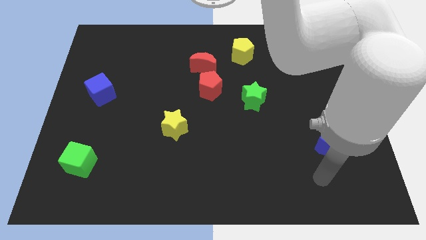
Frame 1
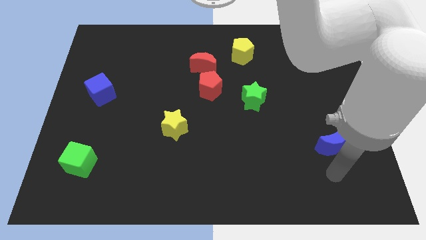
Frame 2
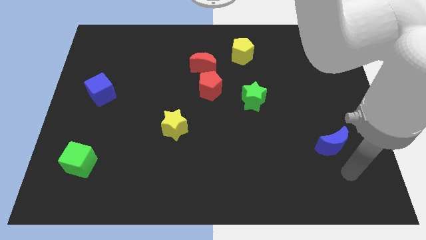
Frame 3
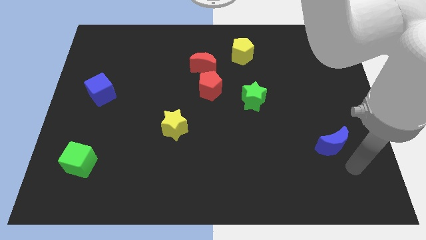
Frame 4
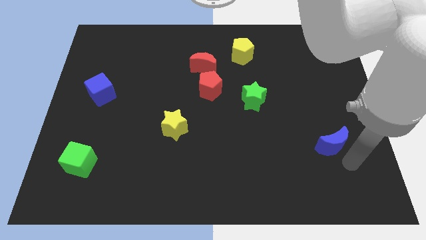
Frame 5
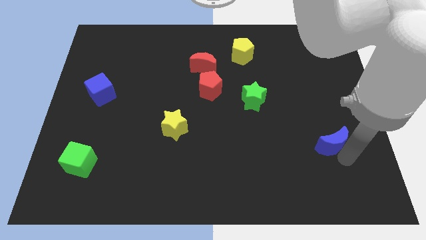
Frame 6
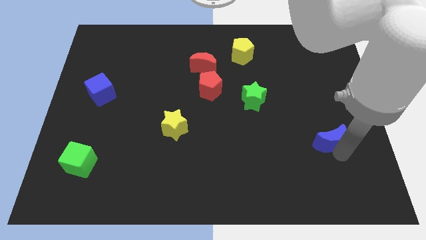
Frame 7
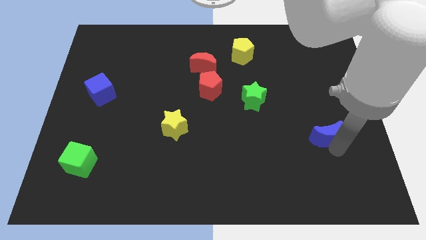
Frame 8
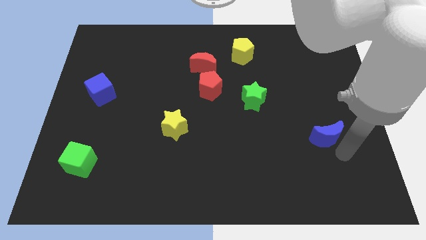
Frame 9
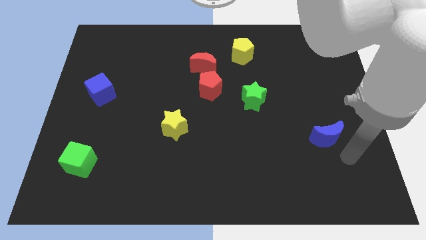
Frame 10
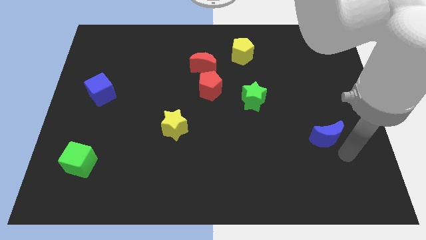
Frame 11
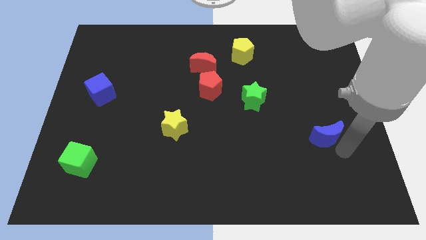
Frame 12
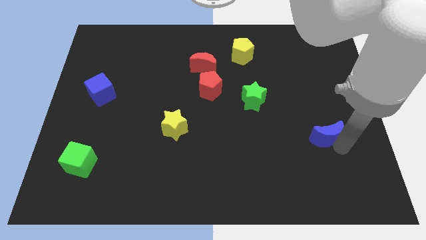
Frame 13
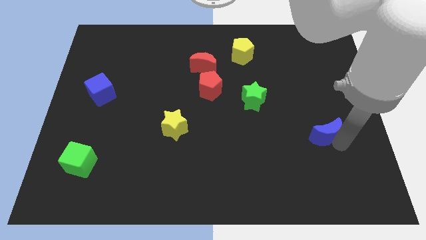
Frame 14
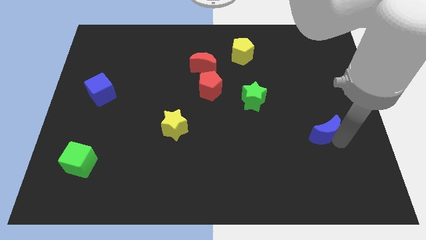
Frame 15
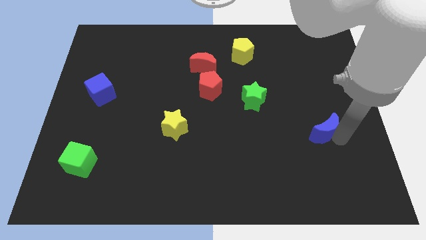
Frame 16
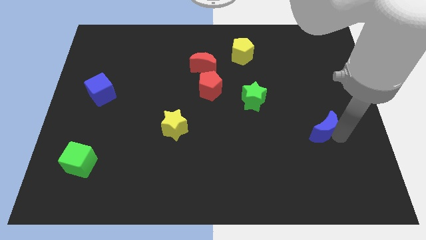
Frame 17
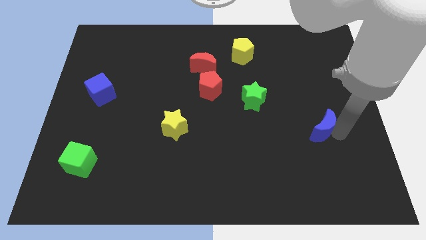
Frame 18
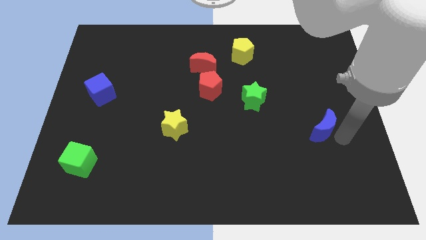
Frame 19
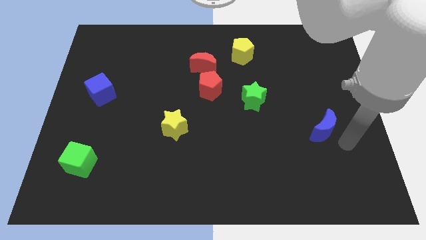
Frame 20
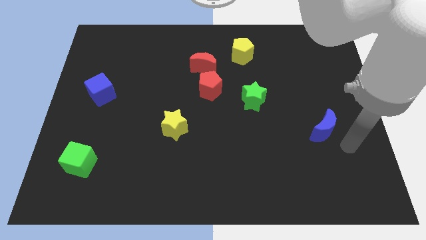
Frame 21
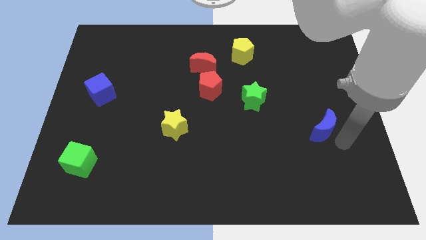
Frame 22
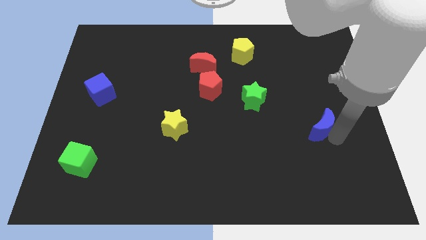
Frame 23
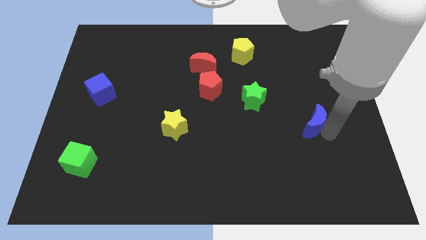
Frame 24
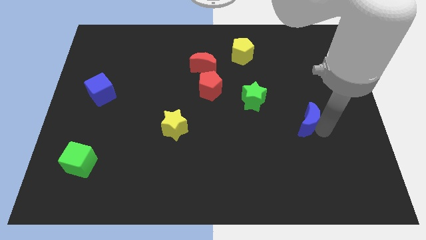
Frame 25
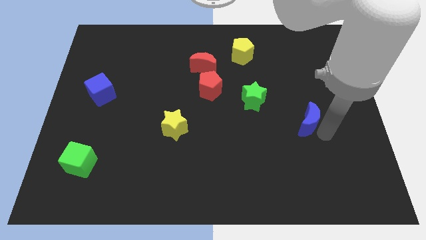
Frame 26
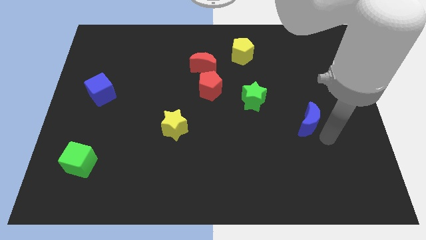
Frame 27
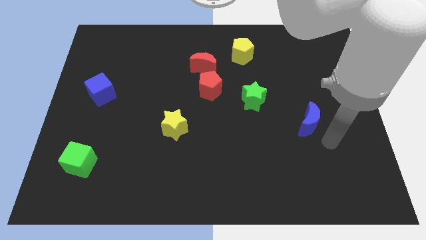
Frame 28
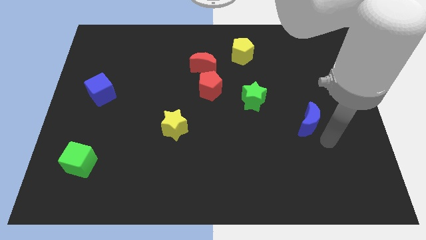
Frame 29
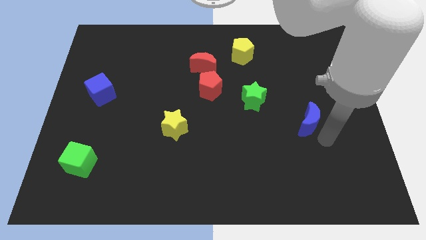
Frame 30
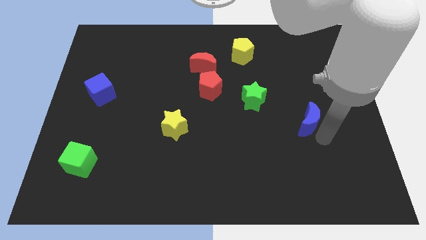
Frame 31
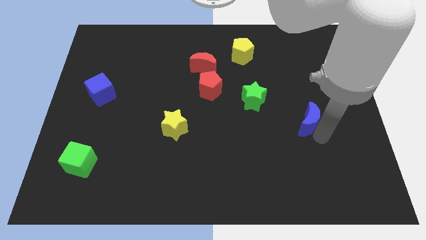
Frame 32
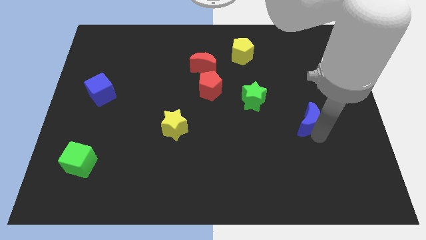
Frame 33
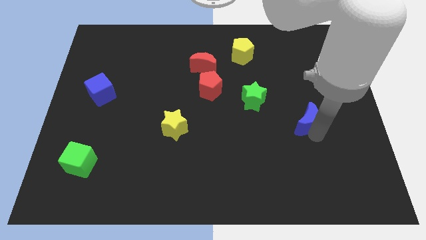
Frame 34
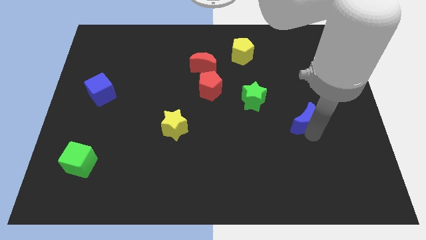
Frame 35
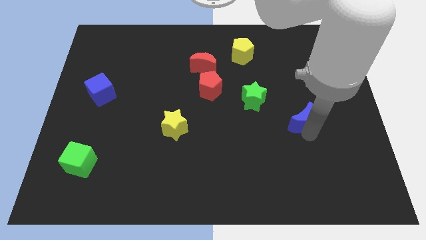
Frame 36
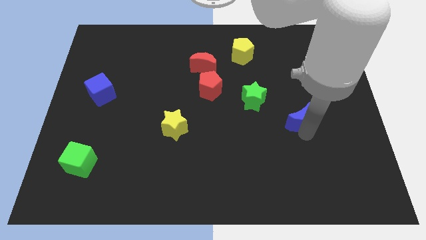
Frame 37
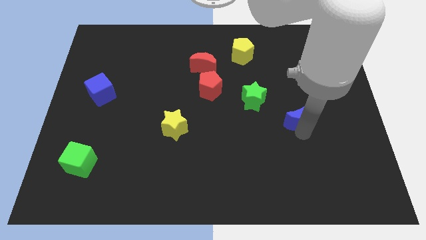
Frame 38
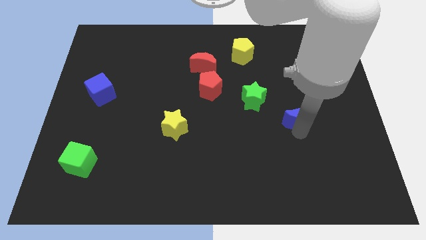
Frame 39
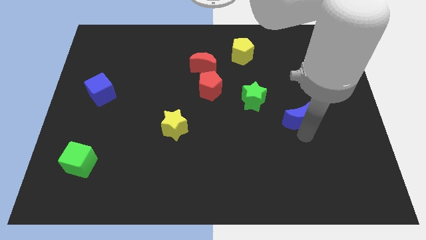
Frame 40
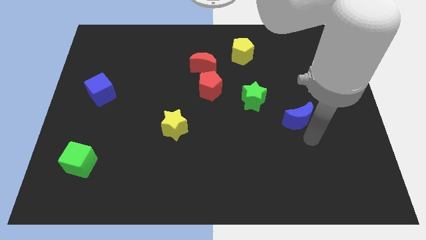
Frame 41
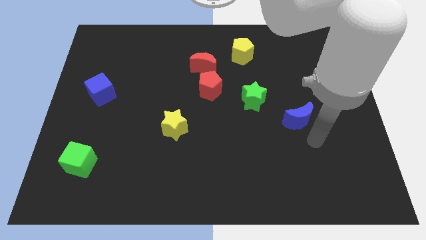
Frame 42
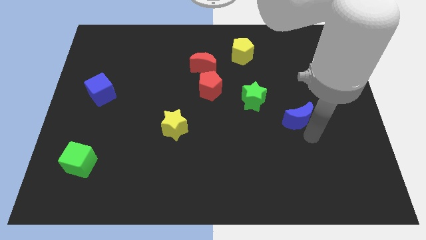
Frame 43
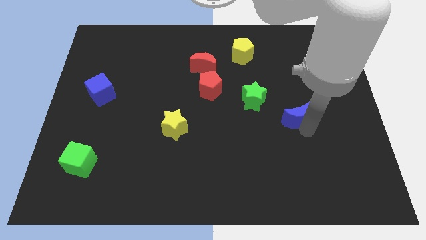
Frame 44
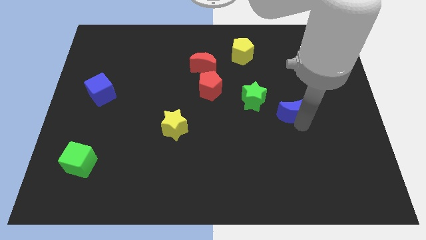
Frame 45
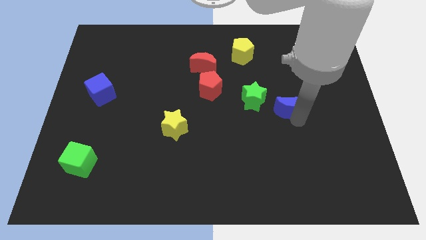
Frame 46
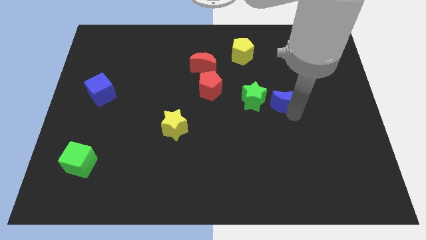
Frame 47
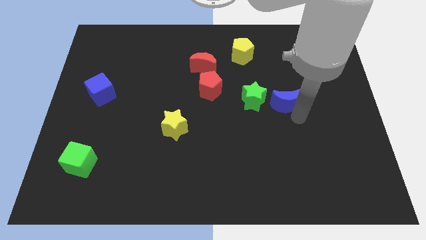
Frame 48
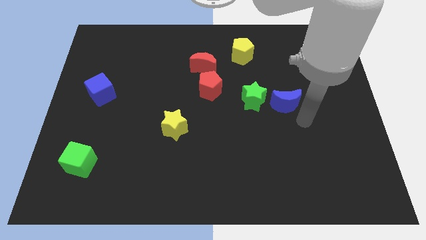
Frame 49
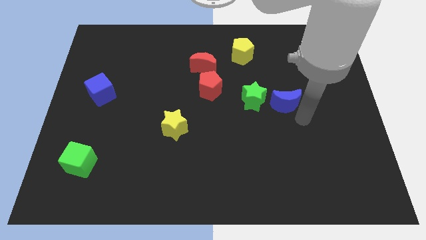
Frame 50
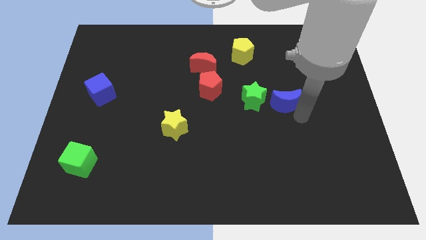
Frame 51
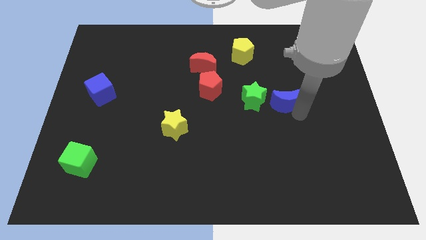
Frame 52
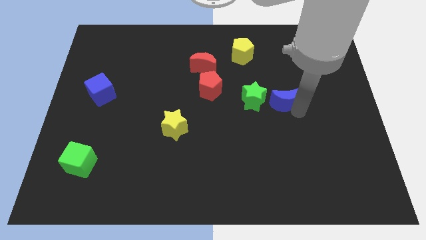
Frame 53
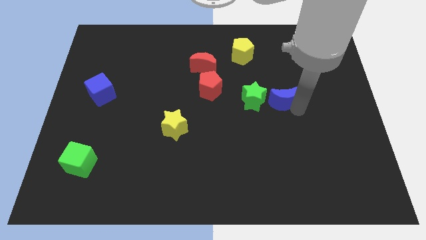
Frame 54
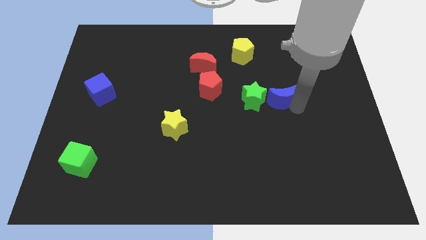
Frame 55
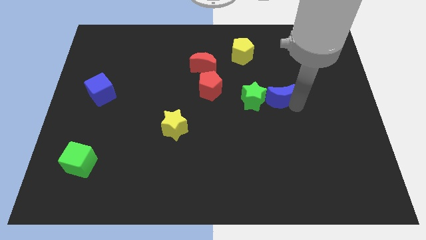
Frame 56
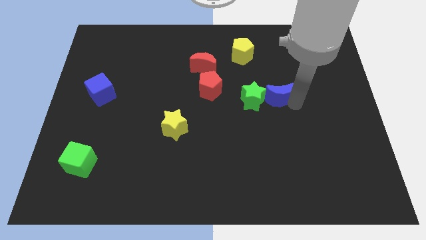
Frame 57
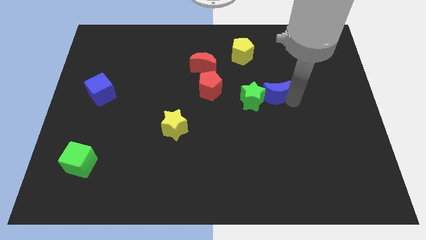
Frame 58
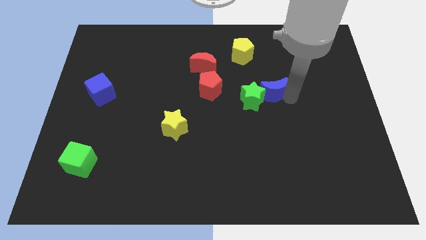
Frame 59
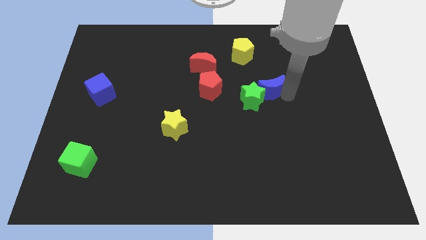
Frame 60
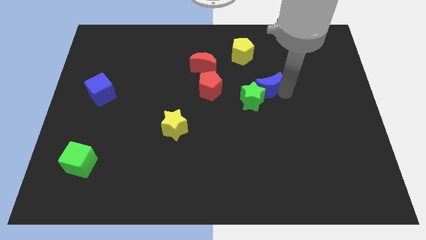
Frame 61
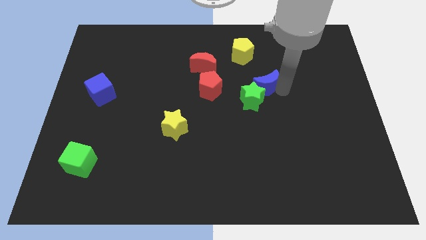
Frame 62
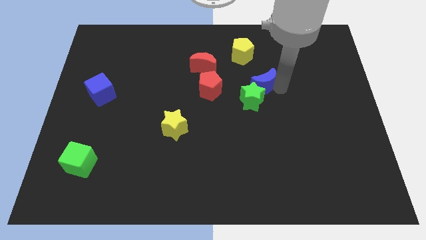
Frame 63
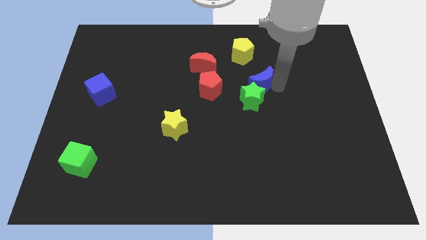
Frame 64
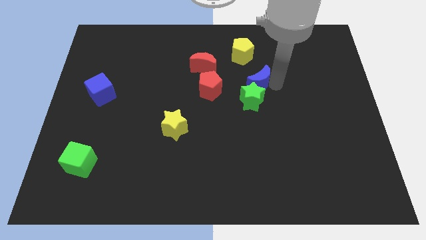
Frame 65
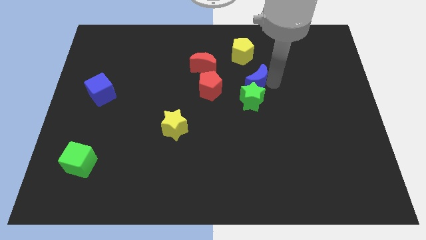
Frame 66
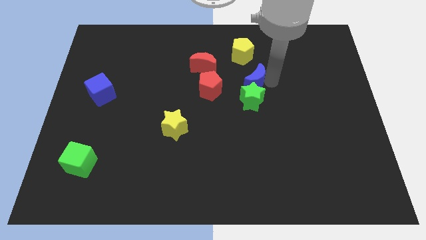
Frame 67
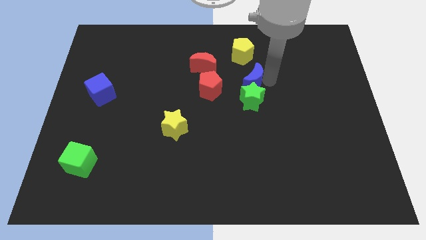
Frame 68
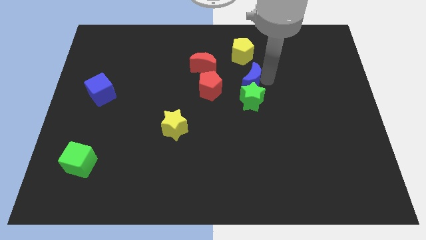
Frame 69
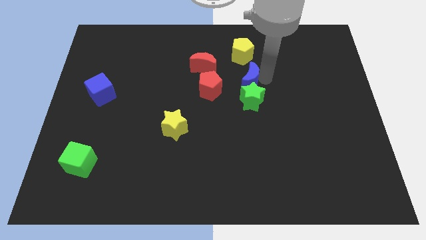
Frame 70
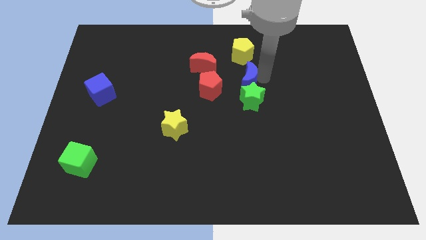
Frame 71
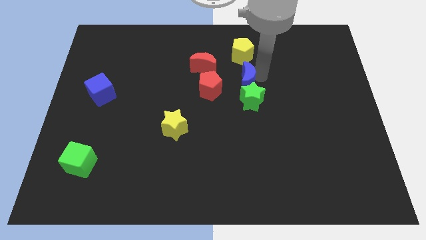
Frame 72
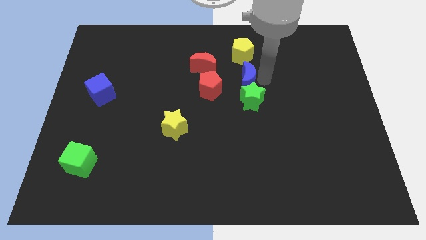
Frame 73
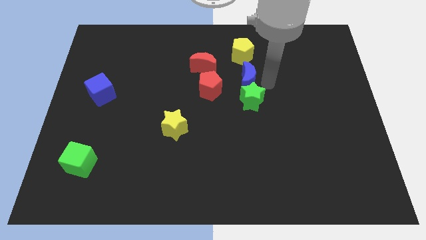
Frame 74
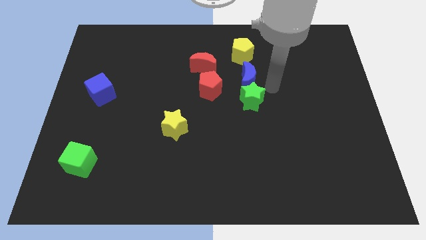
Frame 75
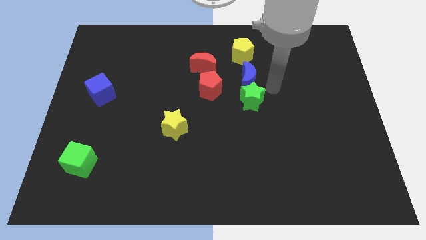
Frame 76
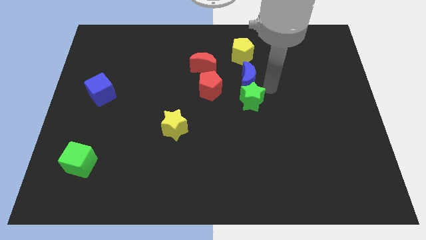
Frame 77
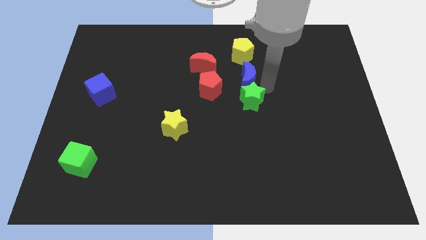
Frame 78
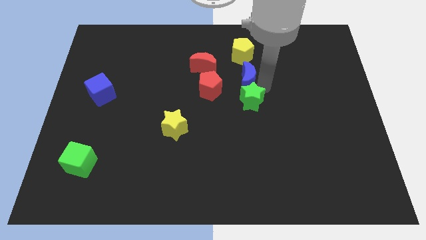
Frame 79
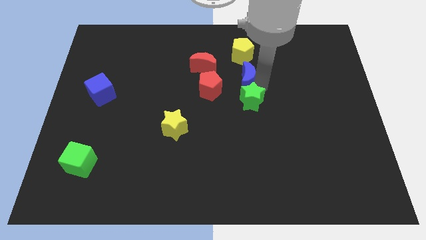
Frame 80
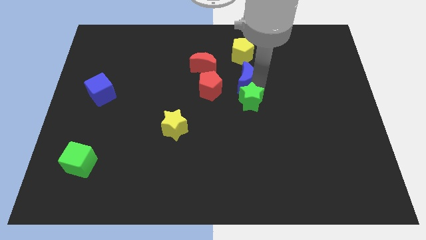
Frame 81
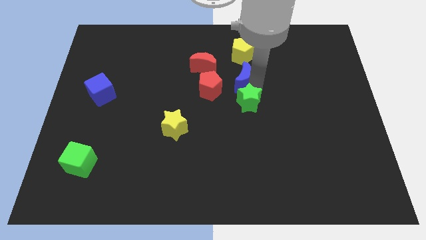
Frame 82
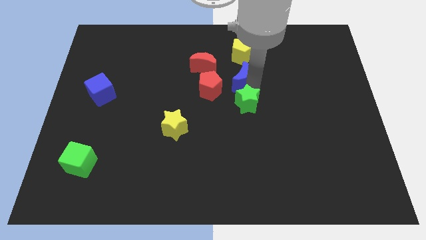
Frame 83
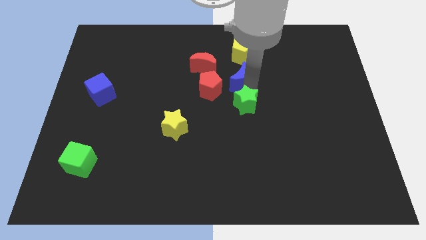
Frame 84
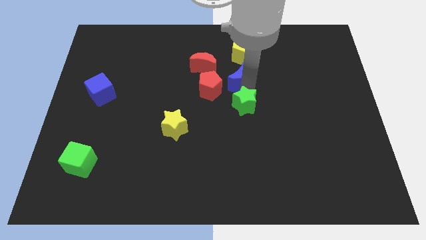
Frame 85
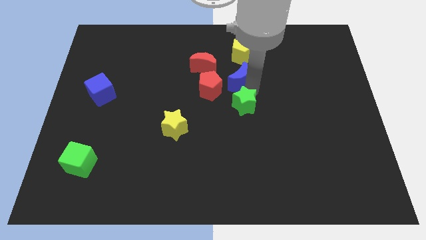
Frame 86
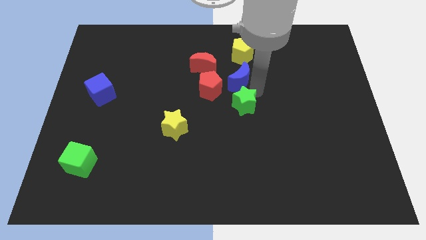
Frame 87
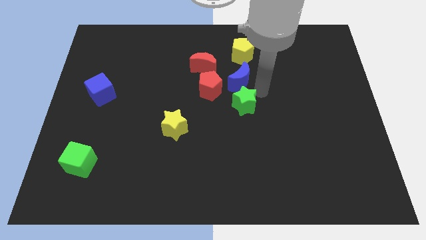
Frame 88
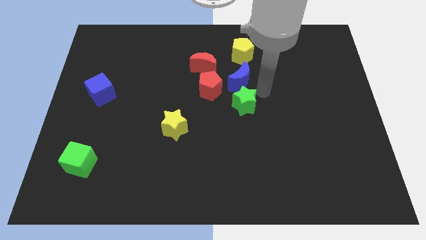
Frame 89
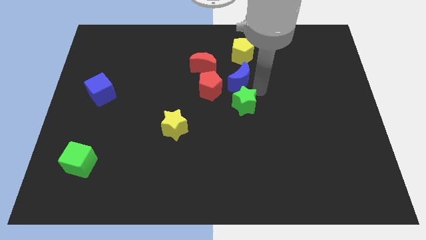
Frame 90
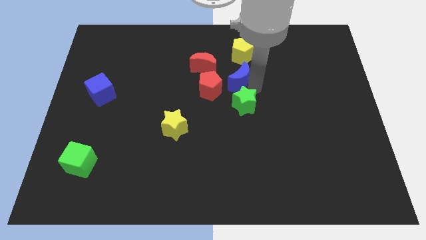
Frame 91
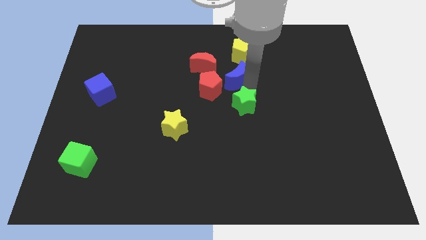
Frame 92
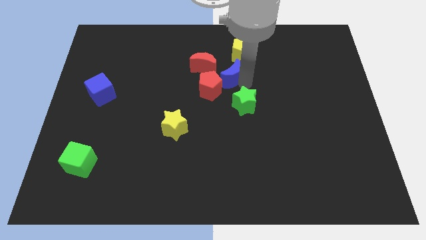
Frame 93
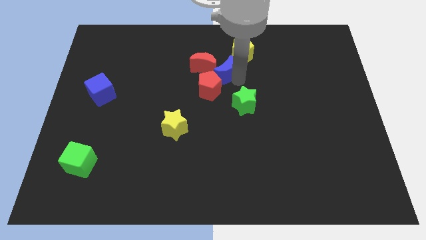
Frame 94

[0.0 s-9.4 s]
put the blue moon to the red moon
